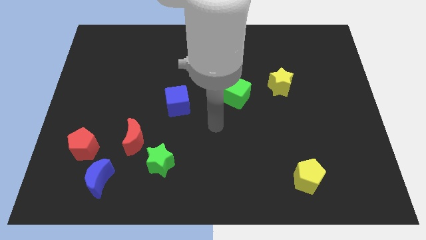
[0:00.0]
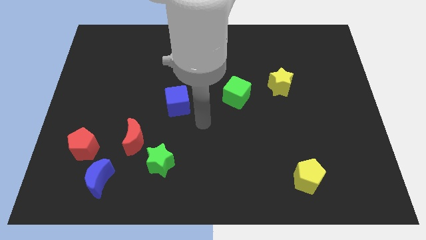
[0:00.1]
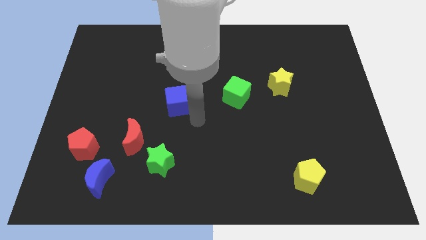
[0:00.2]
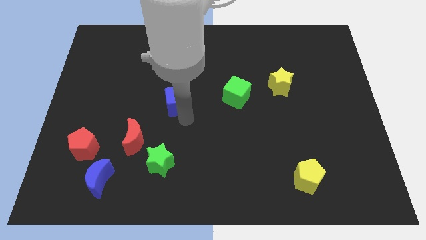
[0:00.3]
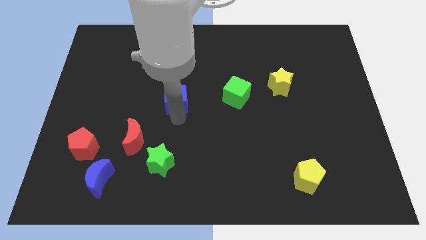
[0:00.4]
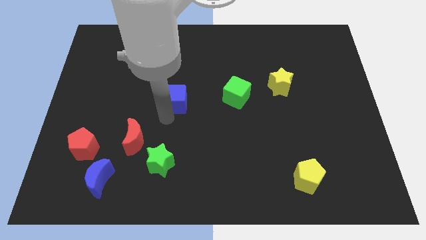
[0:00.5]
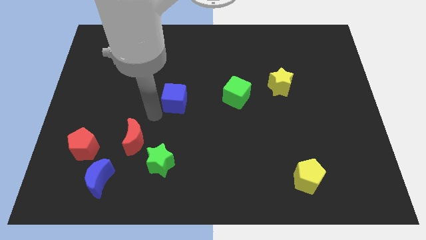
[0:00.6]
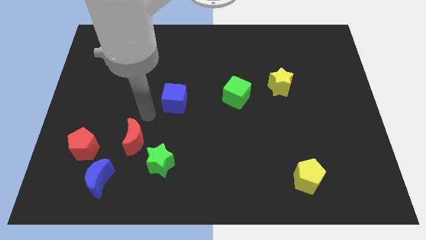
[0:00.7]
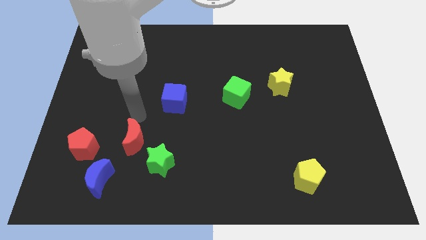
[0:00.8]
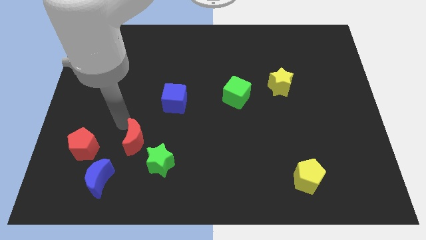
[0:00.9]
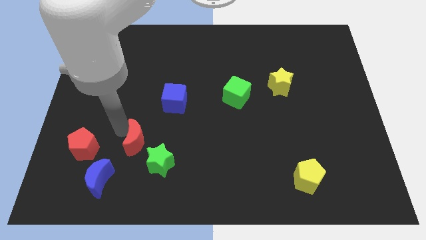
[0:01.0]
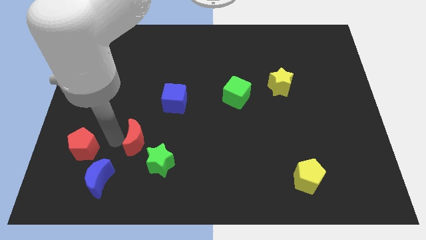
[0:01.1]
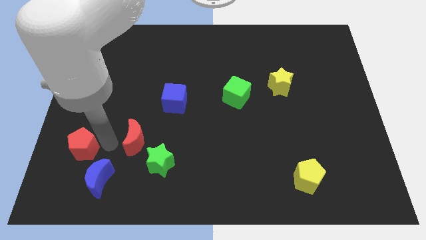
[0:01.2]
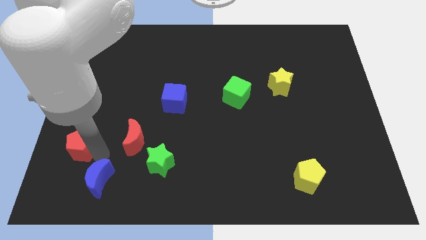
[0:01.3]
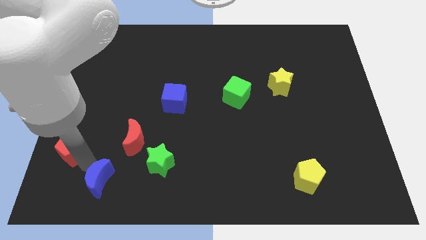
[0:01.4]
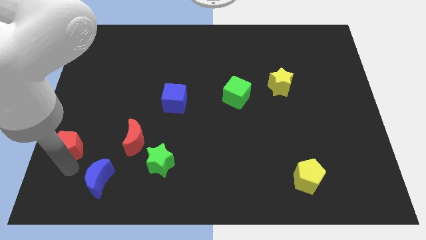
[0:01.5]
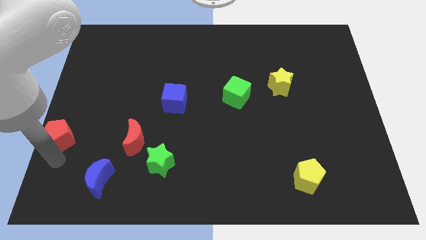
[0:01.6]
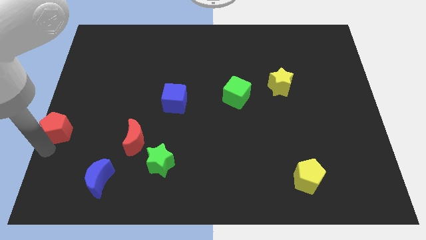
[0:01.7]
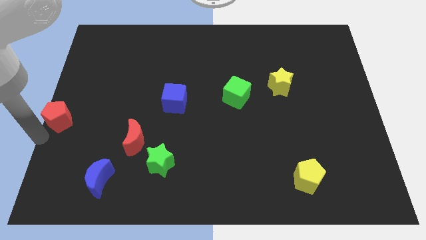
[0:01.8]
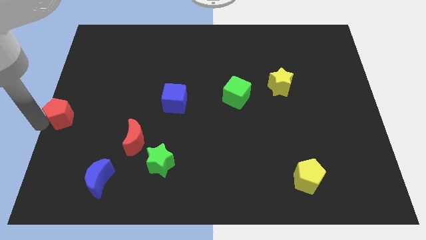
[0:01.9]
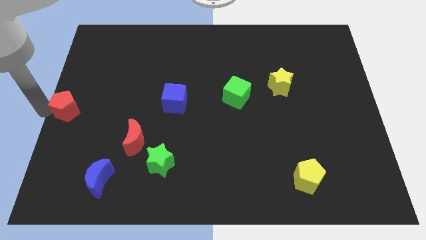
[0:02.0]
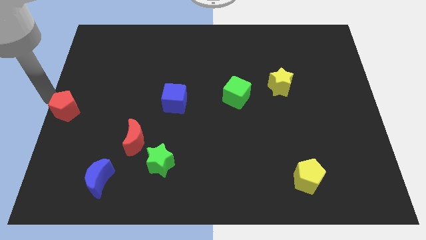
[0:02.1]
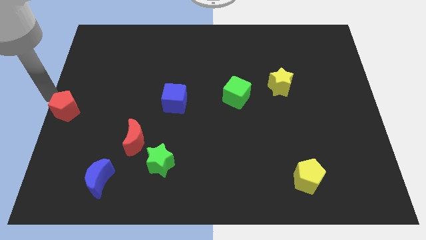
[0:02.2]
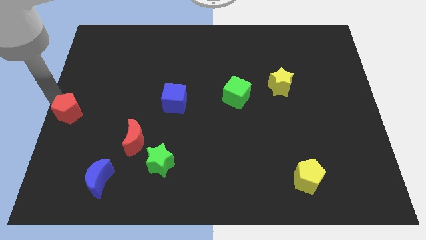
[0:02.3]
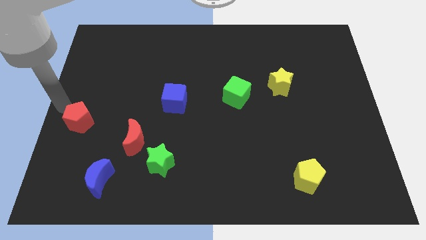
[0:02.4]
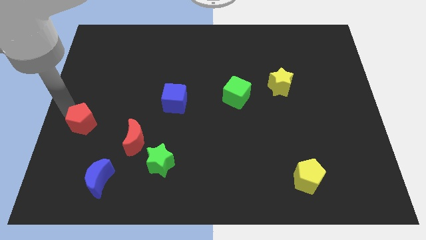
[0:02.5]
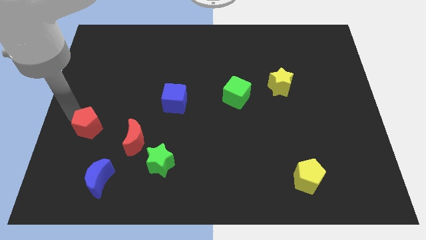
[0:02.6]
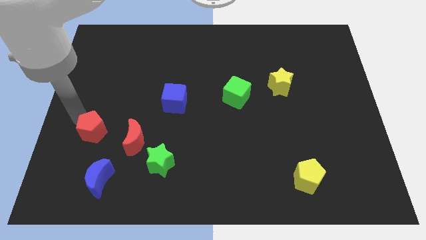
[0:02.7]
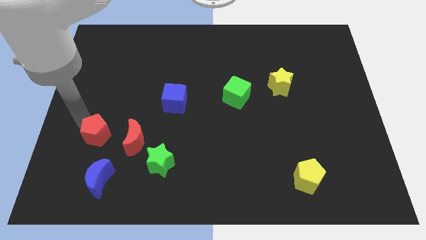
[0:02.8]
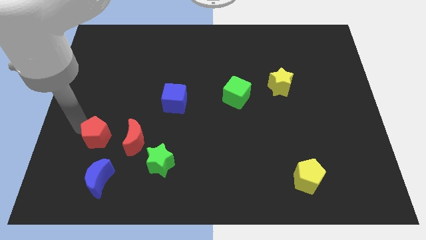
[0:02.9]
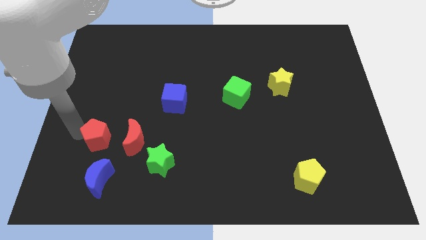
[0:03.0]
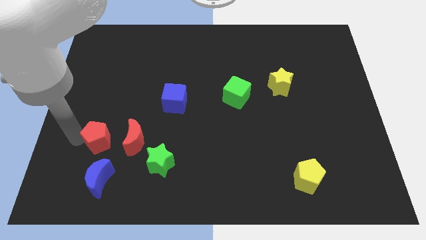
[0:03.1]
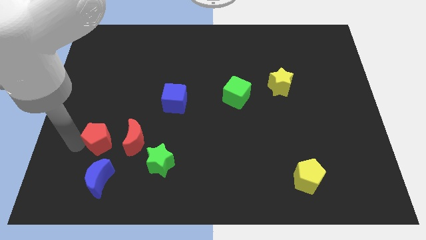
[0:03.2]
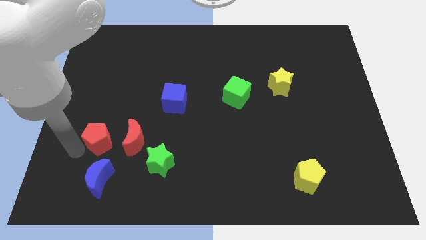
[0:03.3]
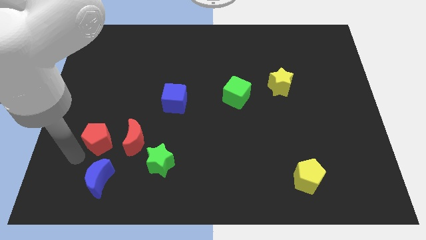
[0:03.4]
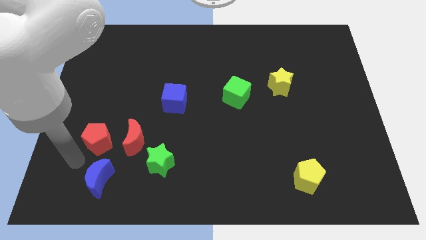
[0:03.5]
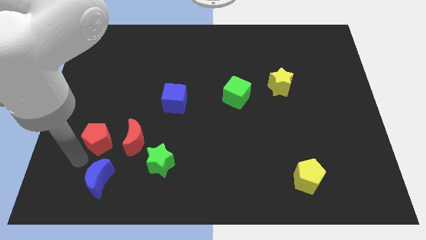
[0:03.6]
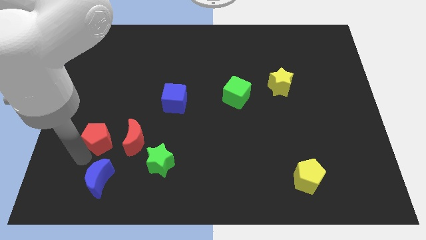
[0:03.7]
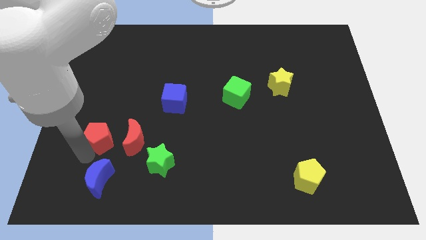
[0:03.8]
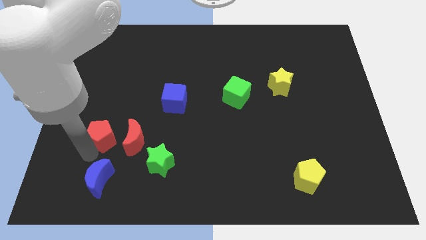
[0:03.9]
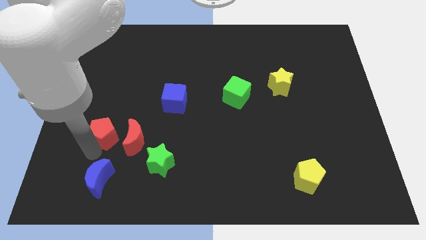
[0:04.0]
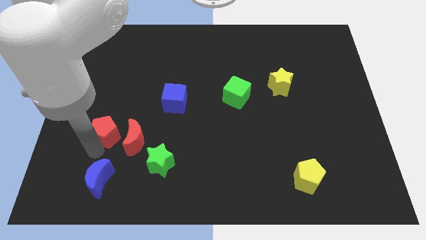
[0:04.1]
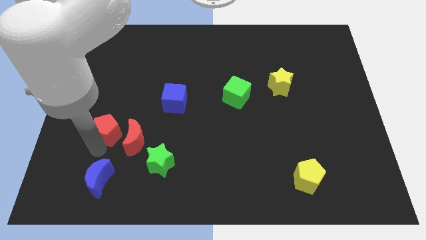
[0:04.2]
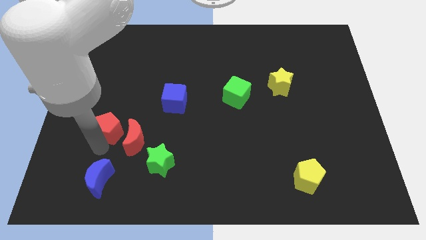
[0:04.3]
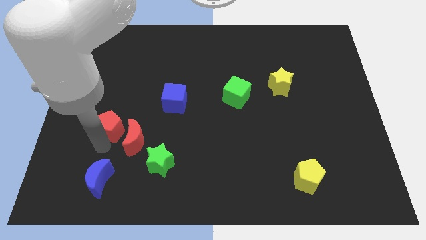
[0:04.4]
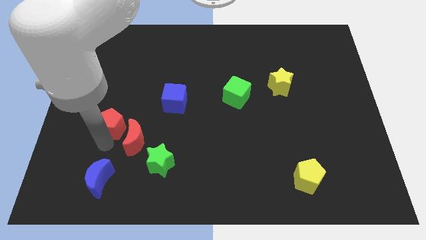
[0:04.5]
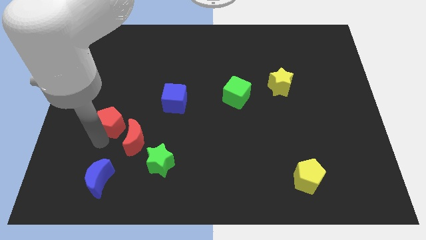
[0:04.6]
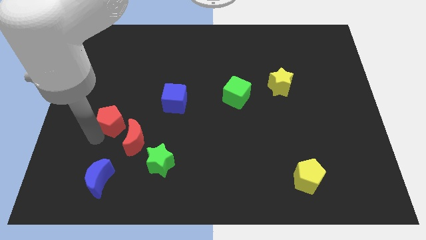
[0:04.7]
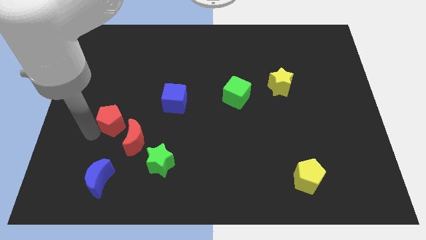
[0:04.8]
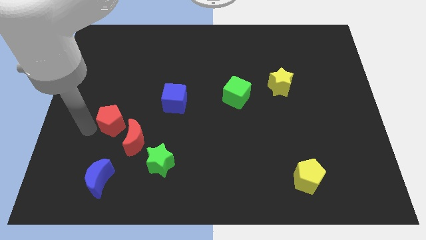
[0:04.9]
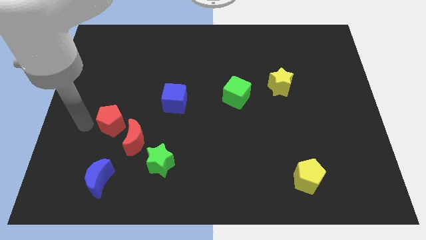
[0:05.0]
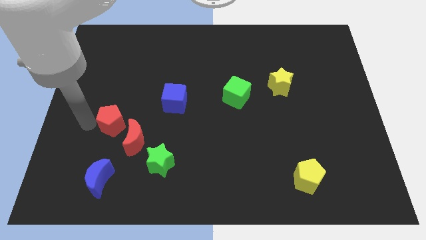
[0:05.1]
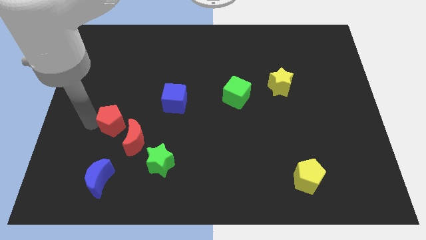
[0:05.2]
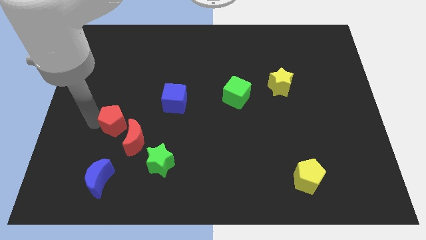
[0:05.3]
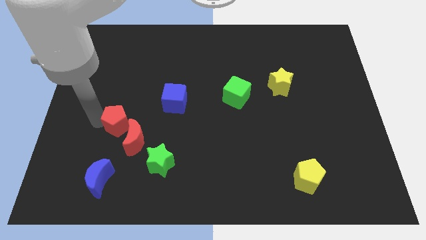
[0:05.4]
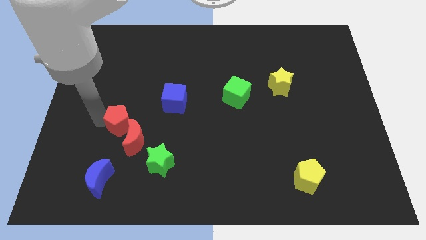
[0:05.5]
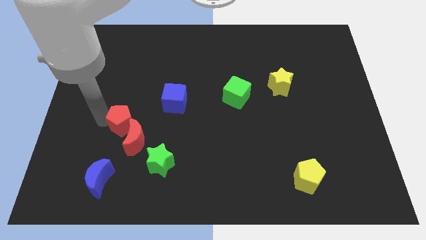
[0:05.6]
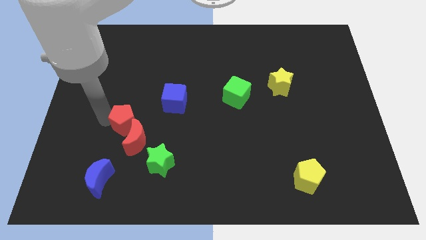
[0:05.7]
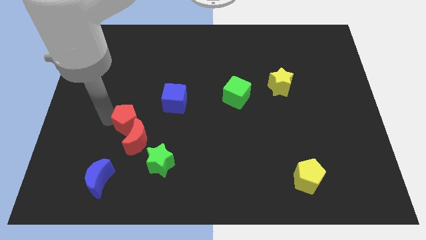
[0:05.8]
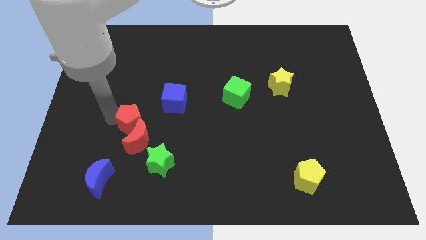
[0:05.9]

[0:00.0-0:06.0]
push the red pentagon right a little bit

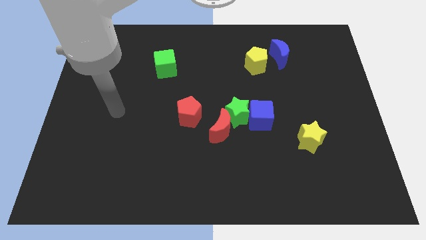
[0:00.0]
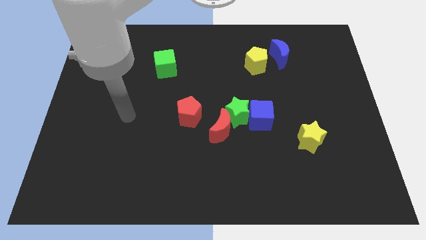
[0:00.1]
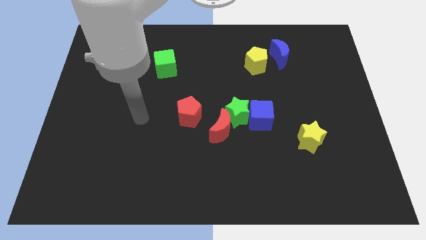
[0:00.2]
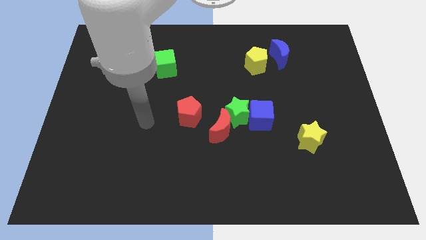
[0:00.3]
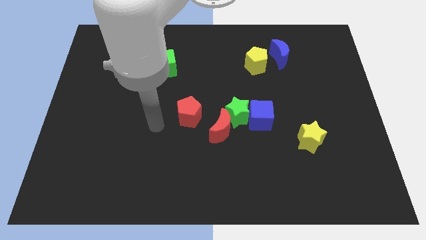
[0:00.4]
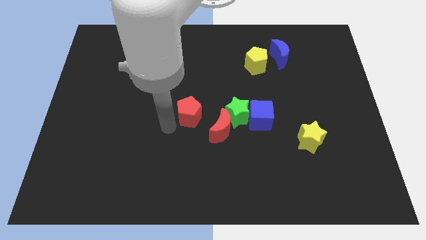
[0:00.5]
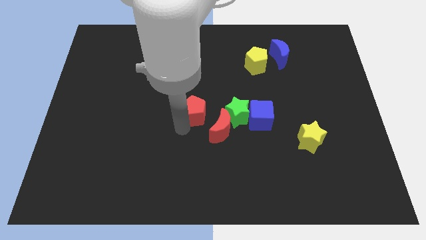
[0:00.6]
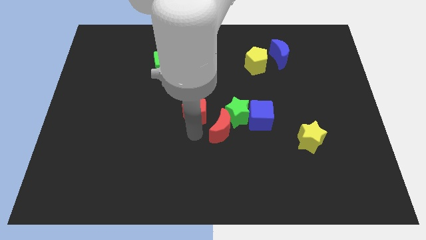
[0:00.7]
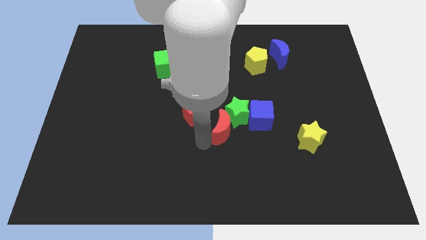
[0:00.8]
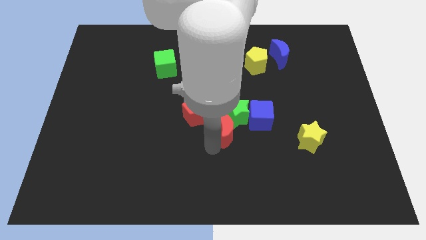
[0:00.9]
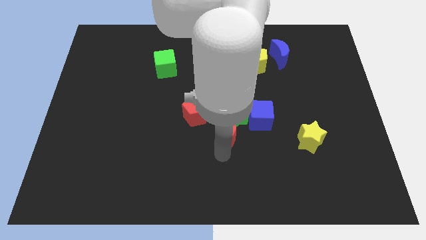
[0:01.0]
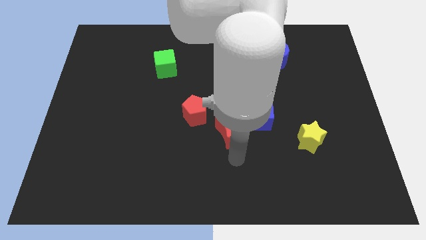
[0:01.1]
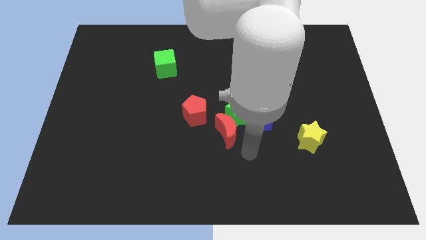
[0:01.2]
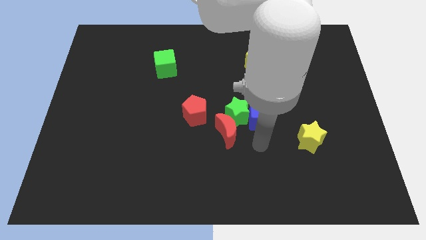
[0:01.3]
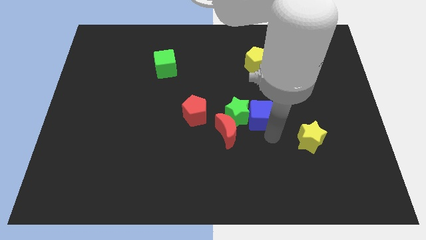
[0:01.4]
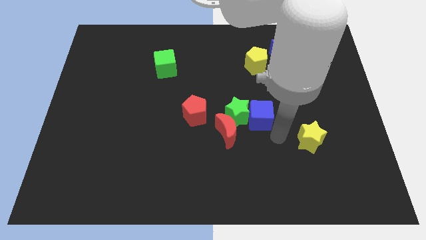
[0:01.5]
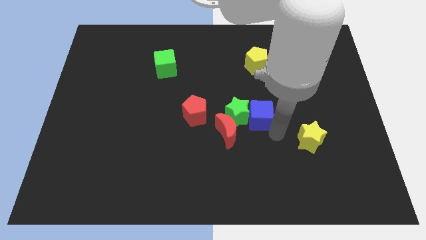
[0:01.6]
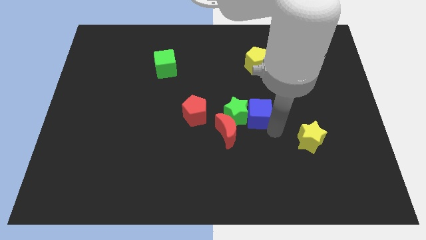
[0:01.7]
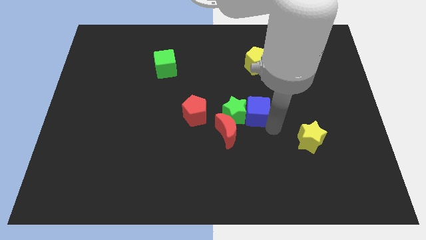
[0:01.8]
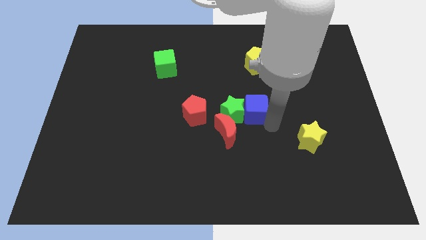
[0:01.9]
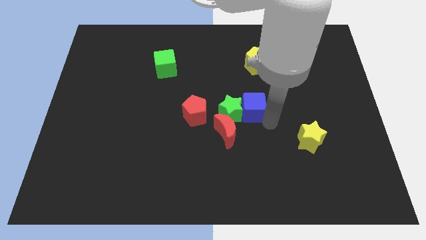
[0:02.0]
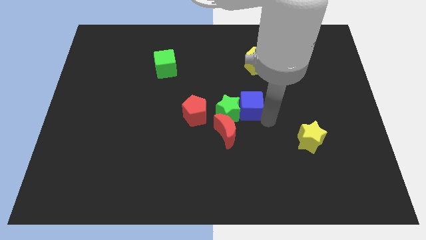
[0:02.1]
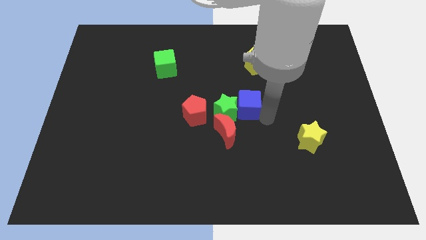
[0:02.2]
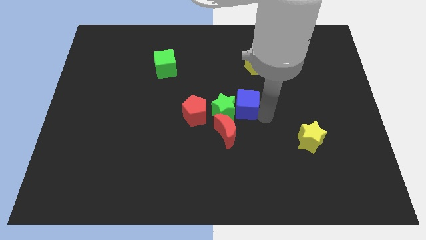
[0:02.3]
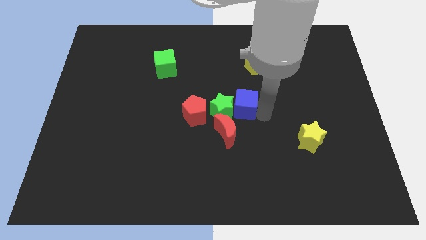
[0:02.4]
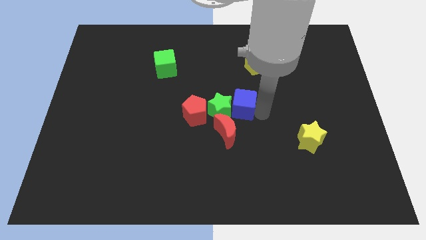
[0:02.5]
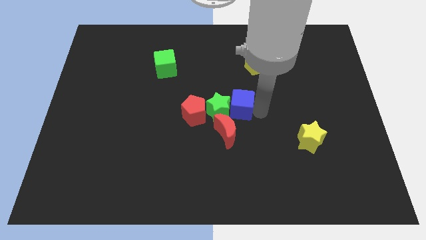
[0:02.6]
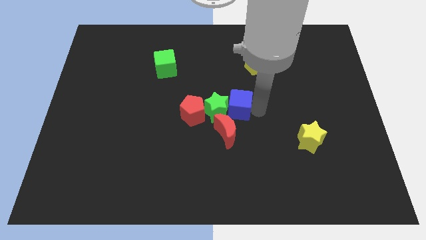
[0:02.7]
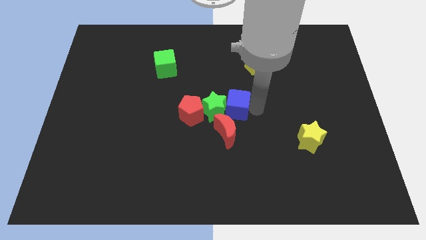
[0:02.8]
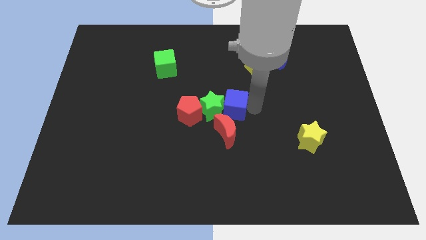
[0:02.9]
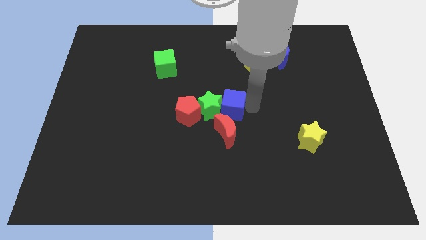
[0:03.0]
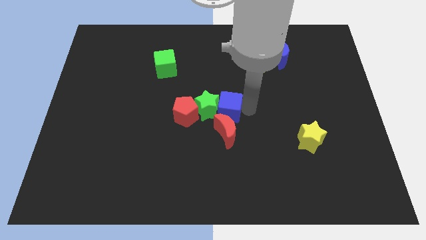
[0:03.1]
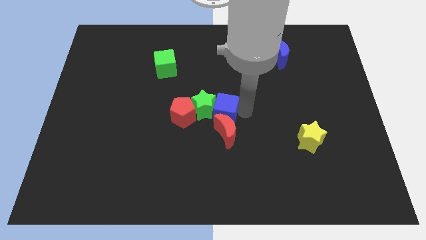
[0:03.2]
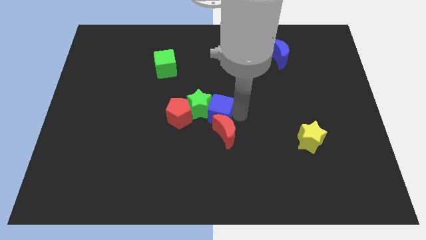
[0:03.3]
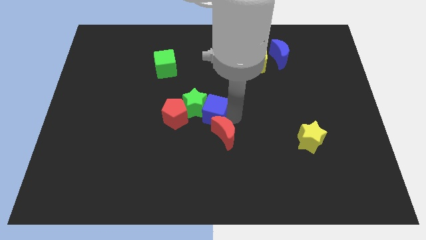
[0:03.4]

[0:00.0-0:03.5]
push the blue cube up and then to the left a bit
